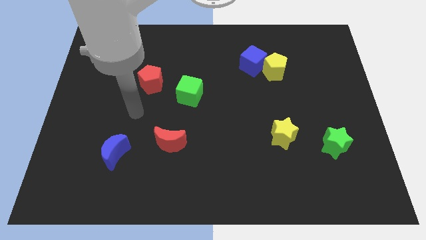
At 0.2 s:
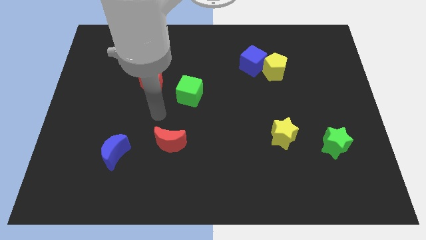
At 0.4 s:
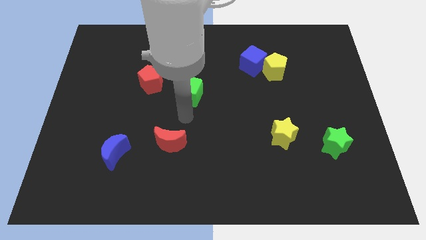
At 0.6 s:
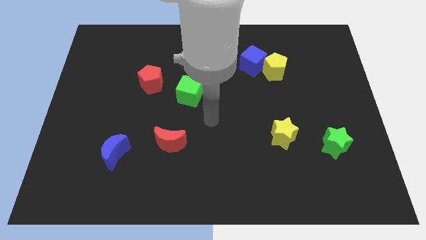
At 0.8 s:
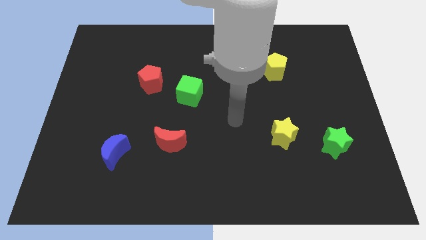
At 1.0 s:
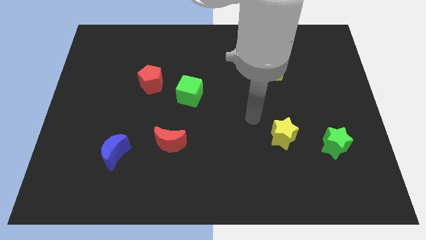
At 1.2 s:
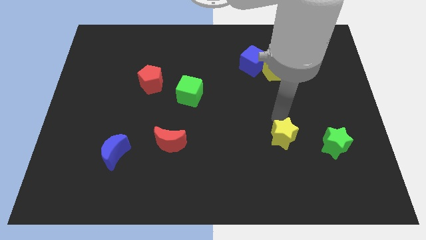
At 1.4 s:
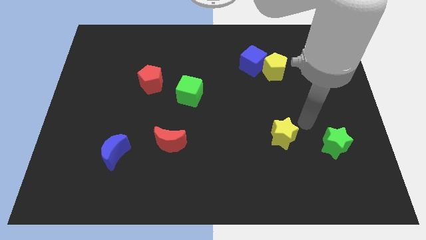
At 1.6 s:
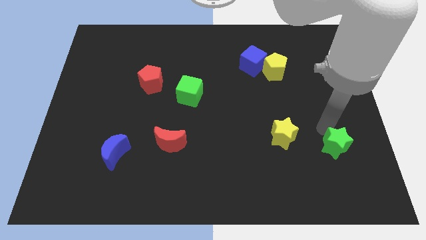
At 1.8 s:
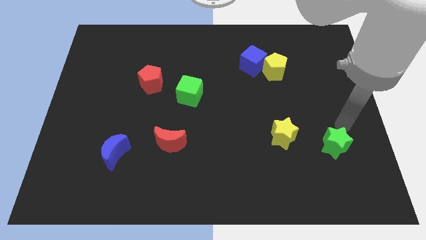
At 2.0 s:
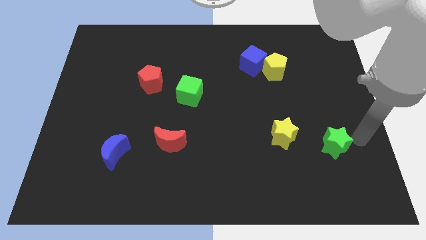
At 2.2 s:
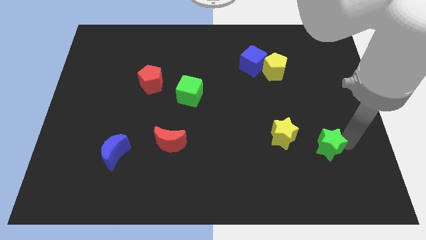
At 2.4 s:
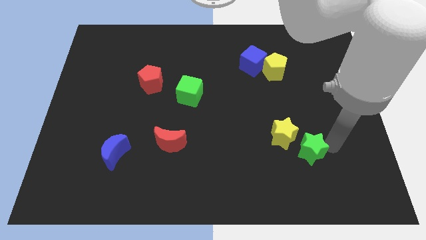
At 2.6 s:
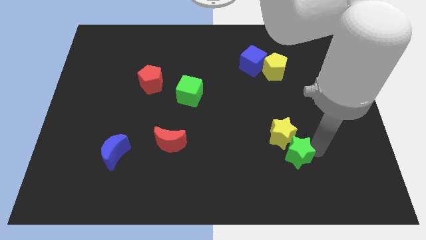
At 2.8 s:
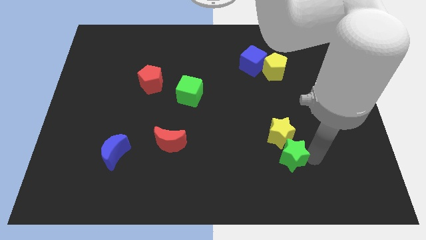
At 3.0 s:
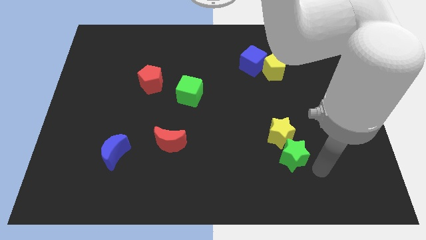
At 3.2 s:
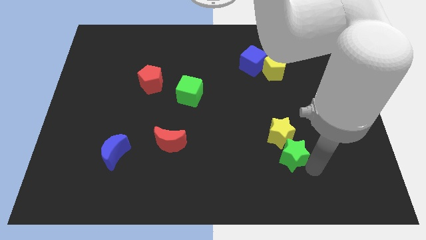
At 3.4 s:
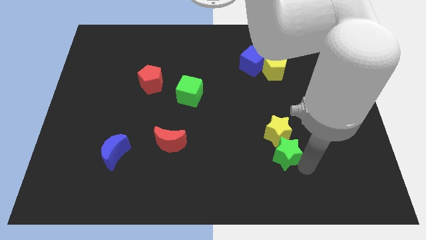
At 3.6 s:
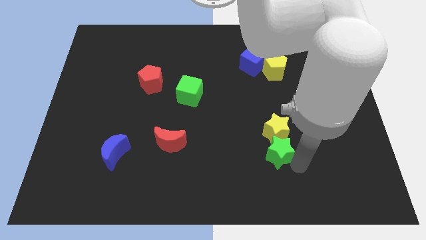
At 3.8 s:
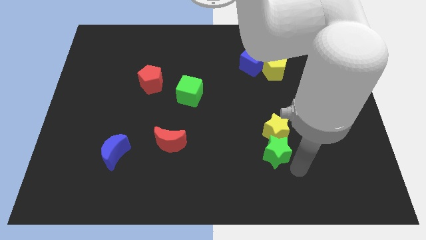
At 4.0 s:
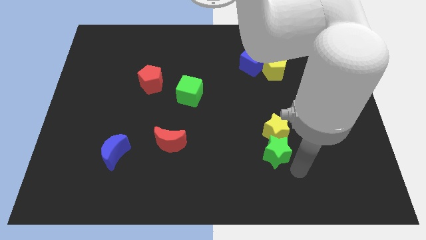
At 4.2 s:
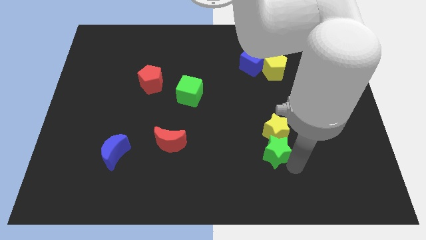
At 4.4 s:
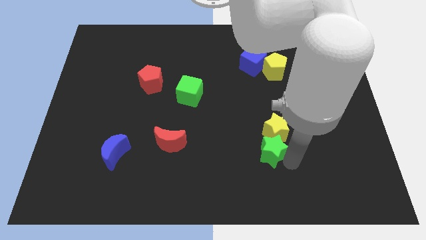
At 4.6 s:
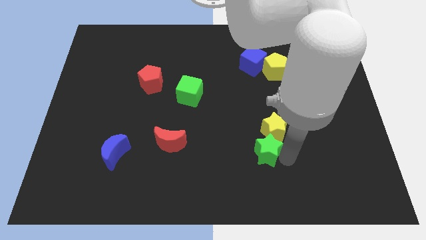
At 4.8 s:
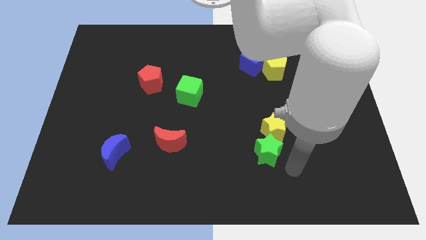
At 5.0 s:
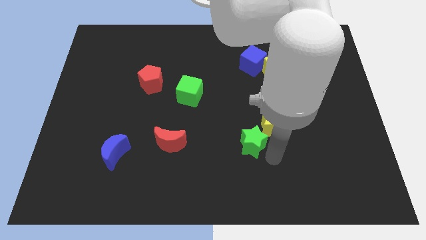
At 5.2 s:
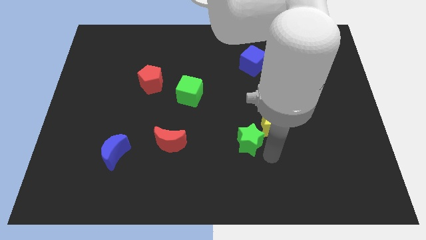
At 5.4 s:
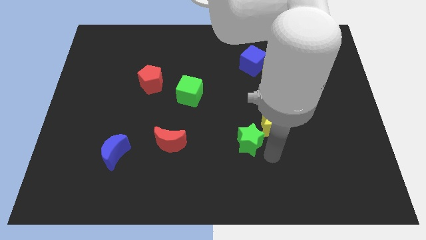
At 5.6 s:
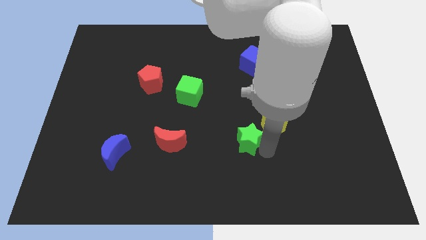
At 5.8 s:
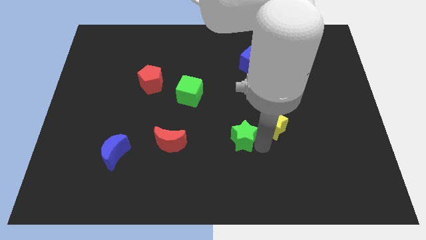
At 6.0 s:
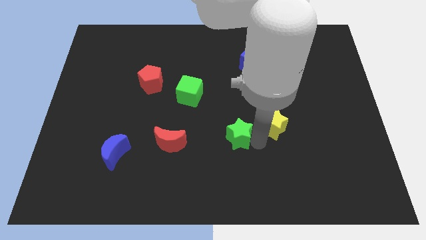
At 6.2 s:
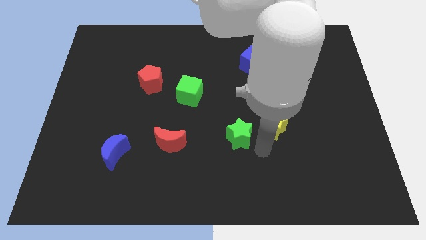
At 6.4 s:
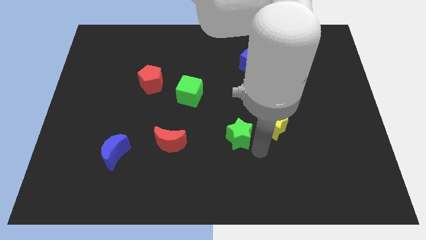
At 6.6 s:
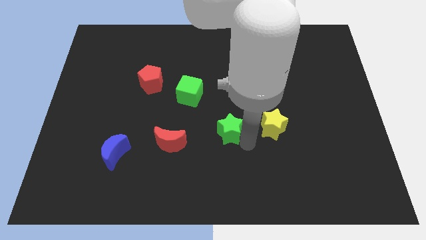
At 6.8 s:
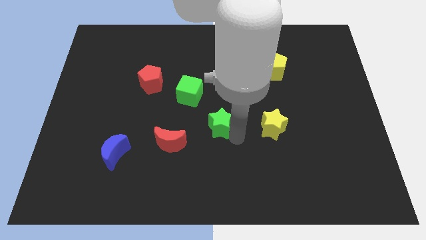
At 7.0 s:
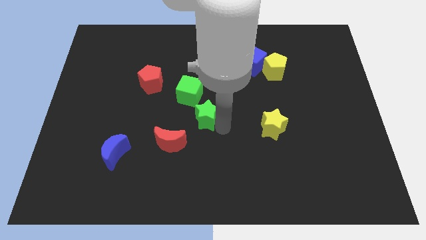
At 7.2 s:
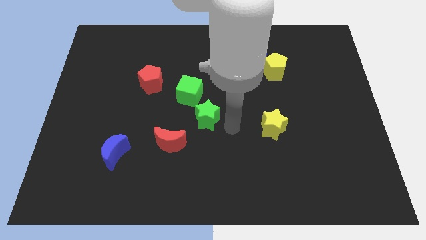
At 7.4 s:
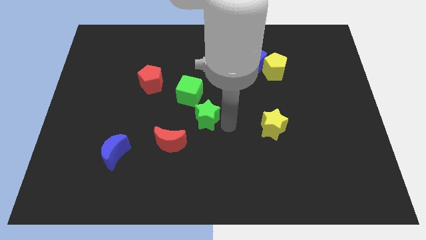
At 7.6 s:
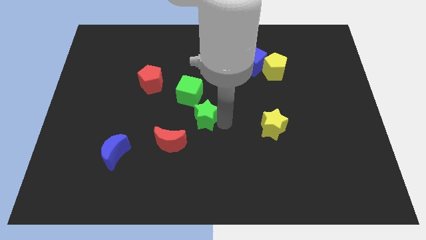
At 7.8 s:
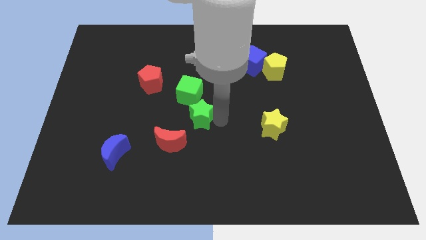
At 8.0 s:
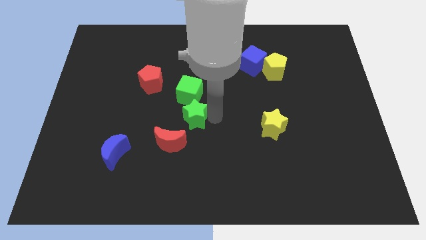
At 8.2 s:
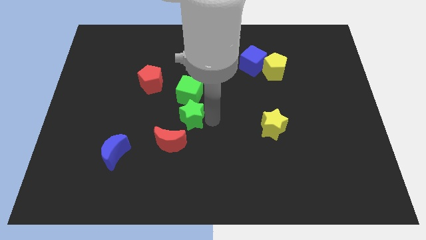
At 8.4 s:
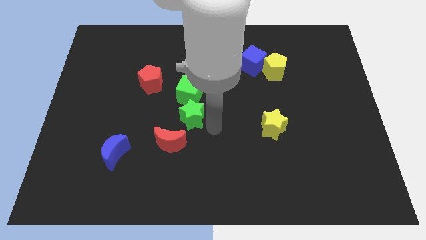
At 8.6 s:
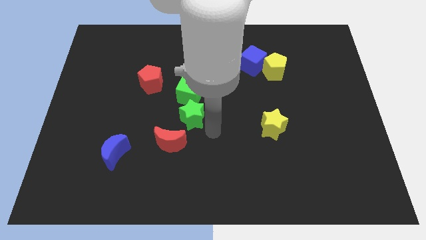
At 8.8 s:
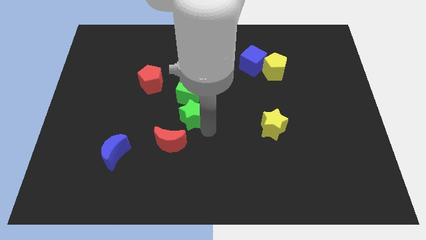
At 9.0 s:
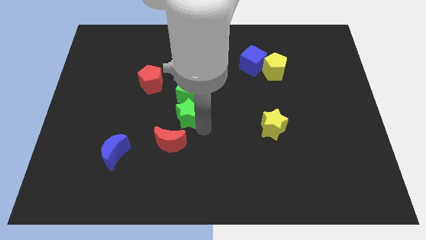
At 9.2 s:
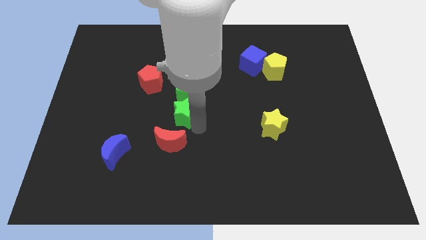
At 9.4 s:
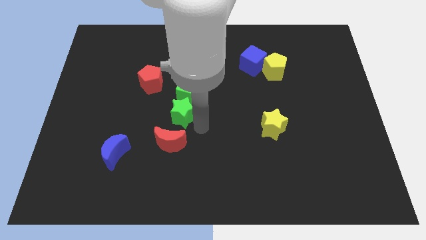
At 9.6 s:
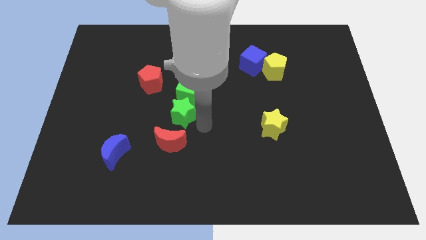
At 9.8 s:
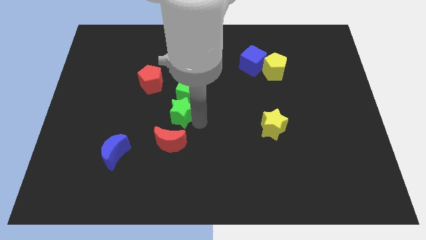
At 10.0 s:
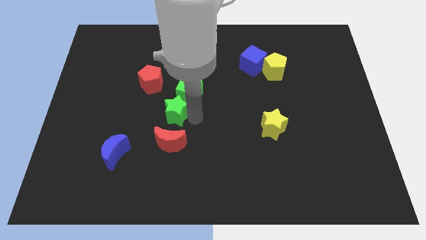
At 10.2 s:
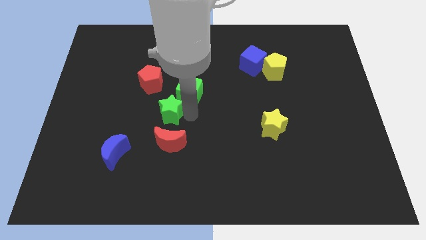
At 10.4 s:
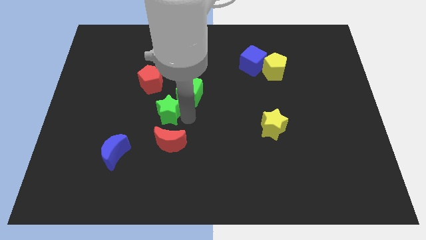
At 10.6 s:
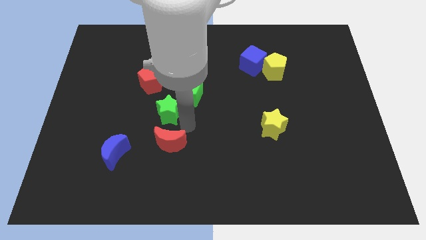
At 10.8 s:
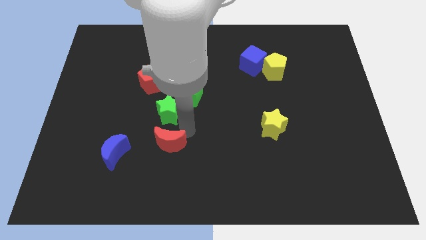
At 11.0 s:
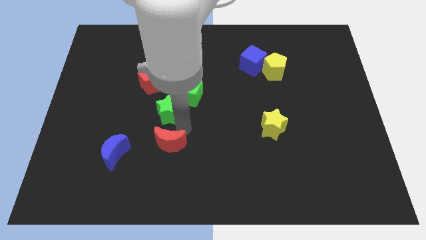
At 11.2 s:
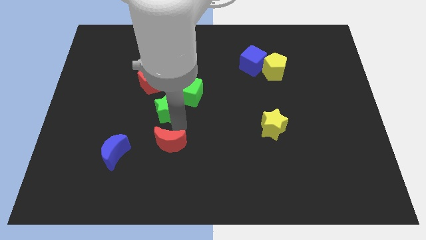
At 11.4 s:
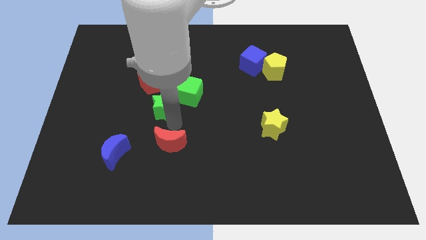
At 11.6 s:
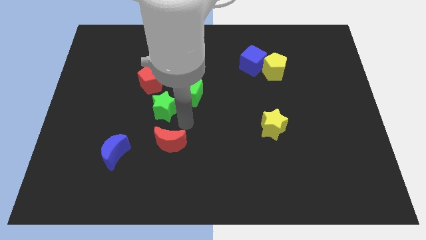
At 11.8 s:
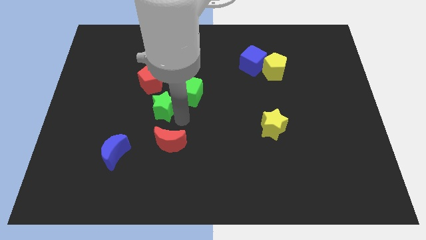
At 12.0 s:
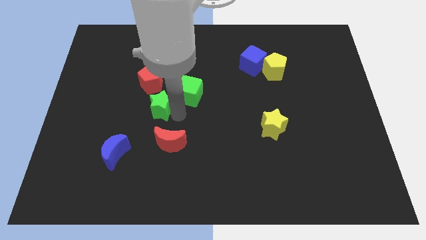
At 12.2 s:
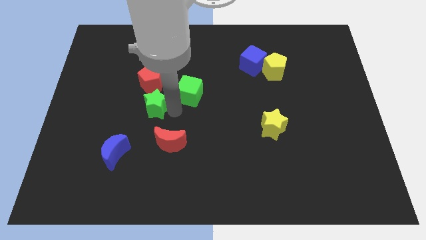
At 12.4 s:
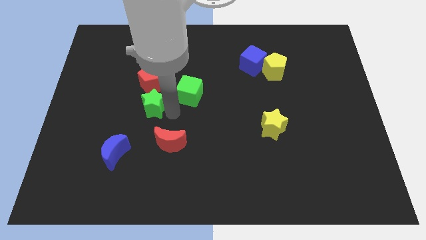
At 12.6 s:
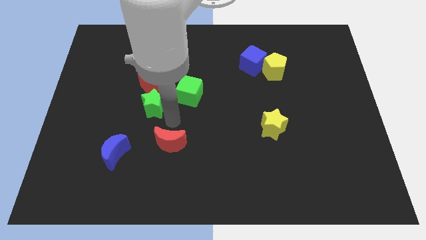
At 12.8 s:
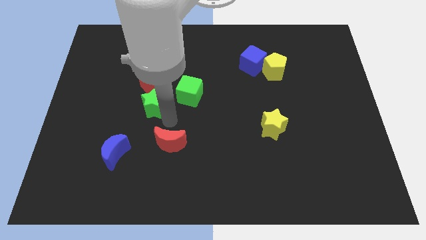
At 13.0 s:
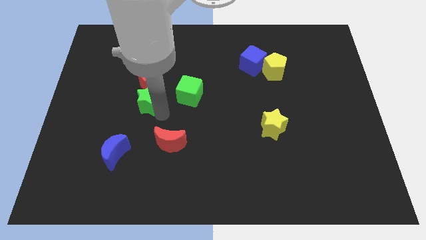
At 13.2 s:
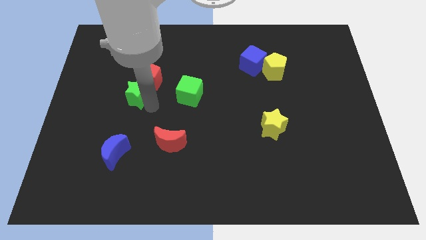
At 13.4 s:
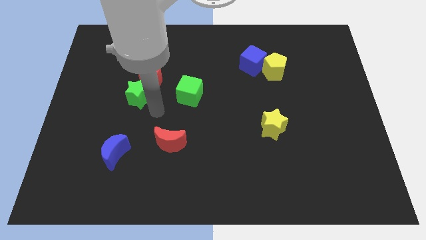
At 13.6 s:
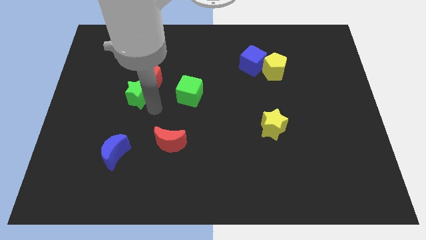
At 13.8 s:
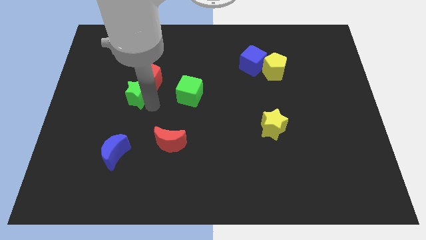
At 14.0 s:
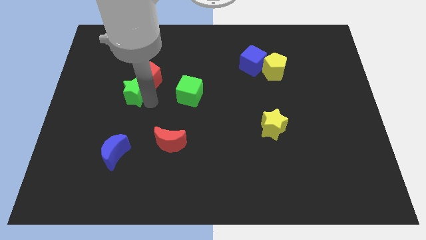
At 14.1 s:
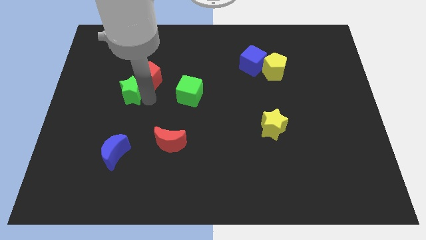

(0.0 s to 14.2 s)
move the green star to the left side of the red pentagon

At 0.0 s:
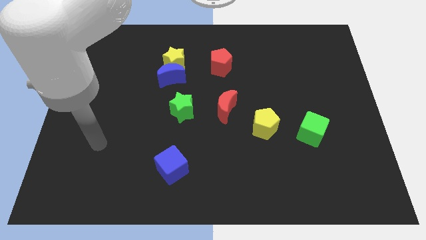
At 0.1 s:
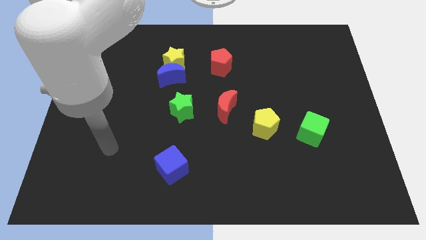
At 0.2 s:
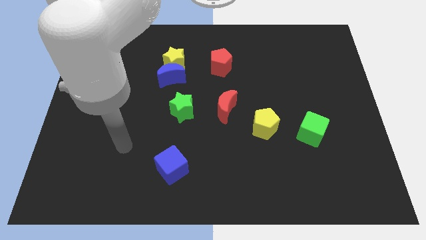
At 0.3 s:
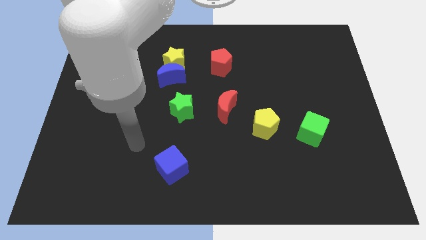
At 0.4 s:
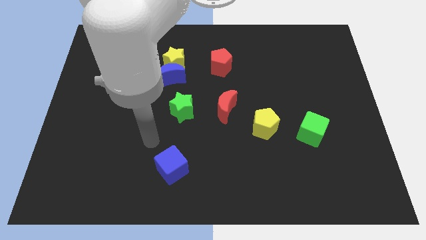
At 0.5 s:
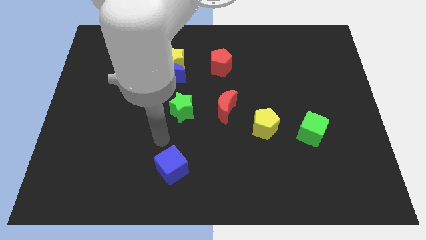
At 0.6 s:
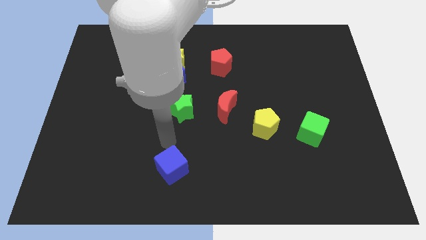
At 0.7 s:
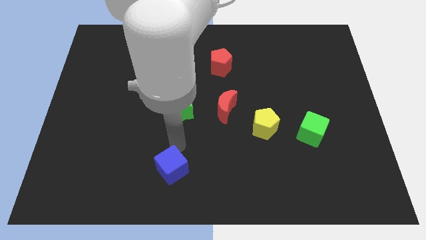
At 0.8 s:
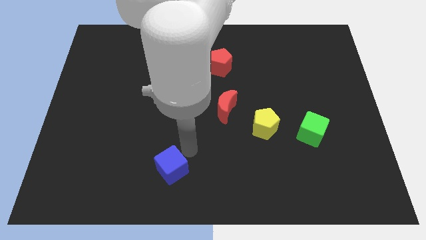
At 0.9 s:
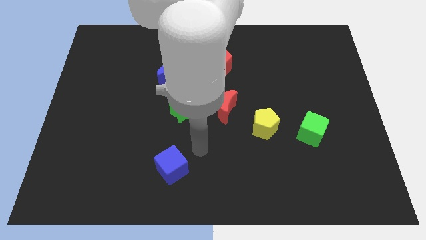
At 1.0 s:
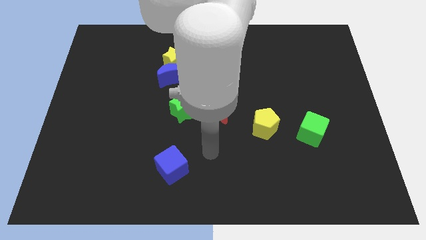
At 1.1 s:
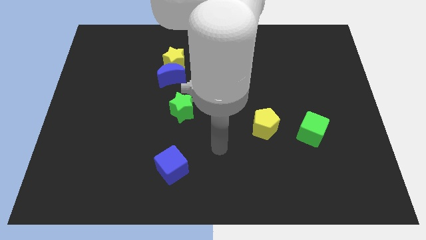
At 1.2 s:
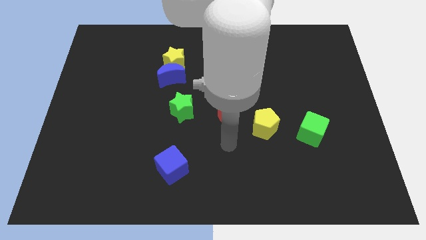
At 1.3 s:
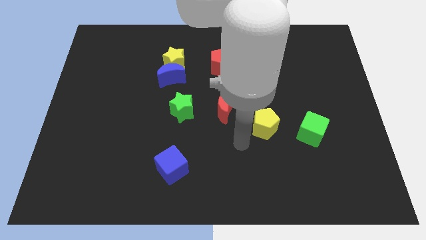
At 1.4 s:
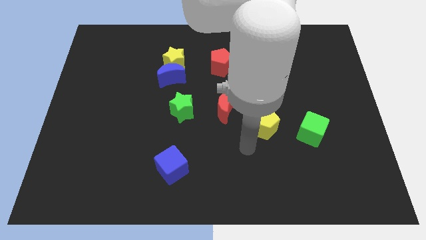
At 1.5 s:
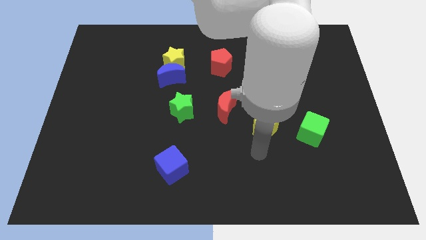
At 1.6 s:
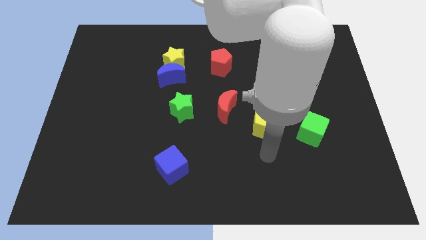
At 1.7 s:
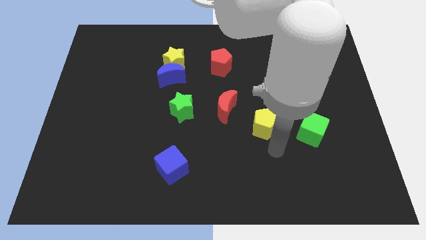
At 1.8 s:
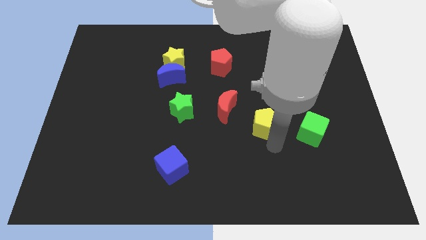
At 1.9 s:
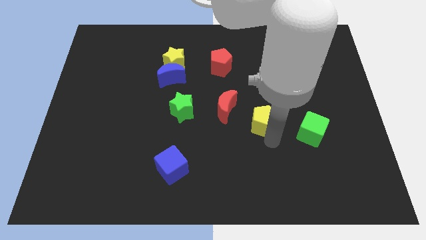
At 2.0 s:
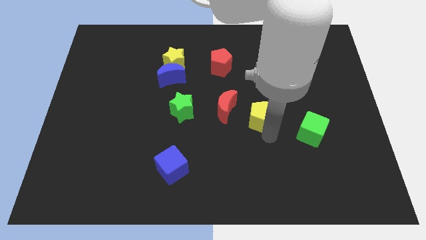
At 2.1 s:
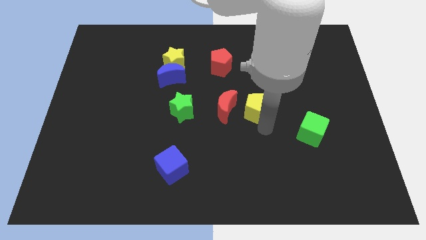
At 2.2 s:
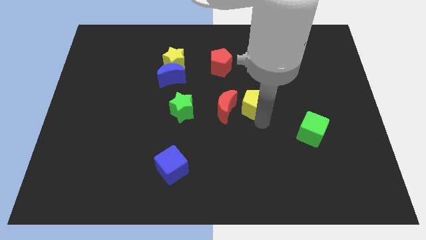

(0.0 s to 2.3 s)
put the yellow pentagon to the top right of the red moon
